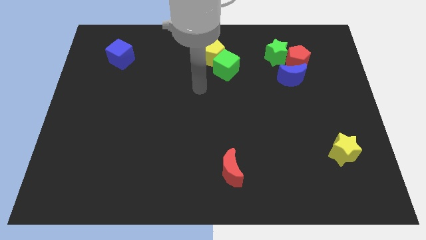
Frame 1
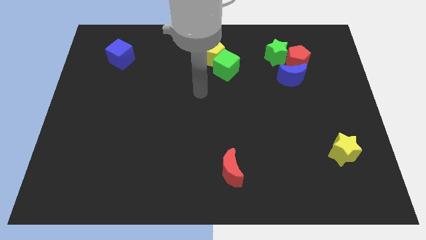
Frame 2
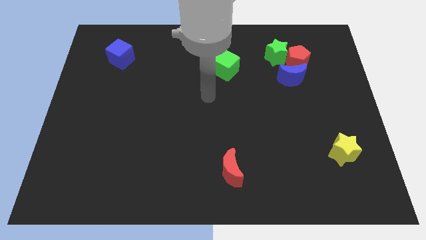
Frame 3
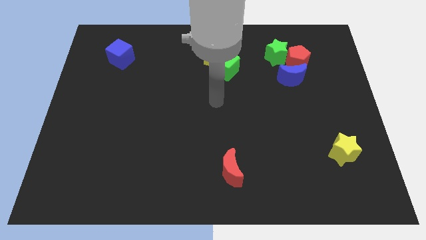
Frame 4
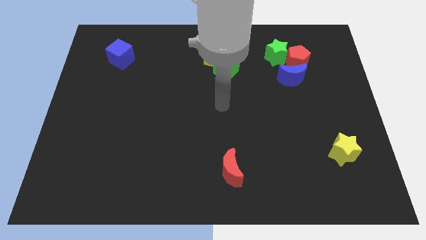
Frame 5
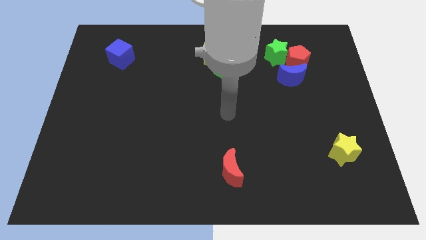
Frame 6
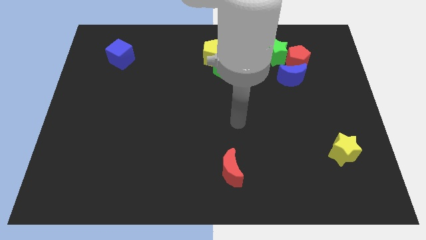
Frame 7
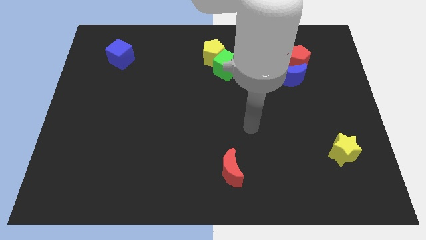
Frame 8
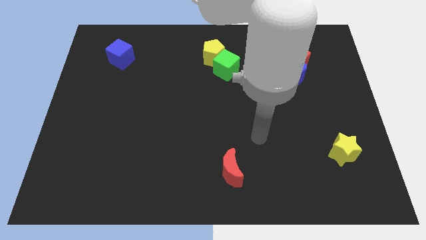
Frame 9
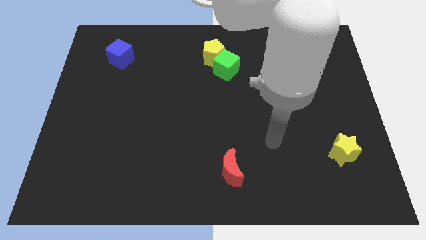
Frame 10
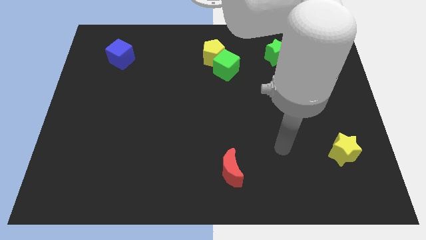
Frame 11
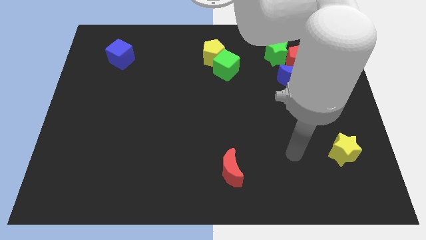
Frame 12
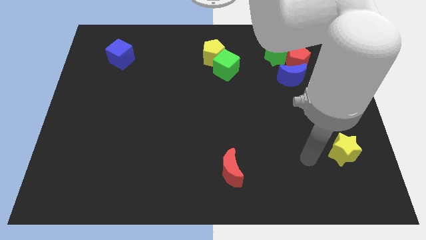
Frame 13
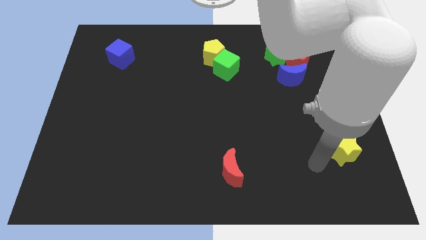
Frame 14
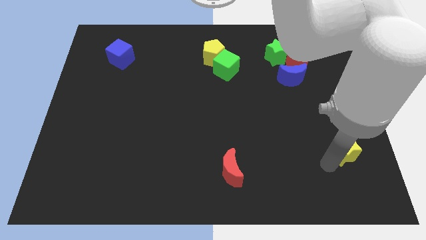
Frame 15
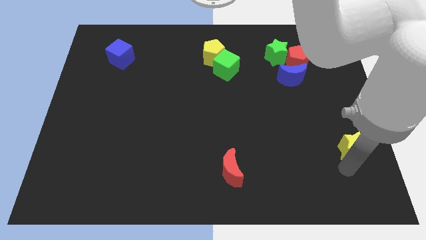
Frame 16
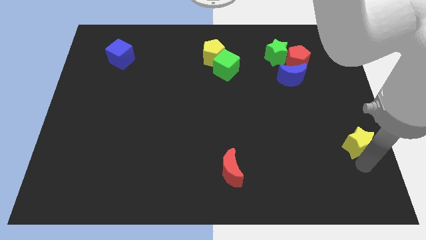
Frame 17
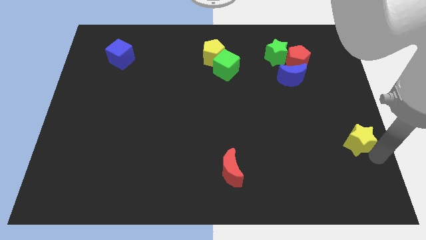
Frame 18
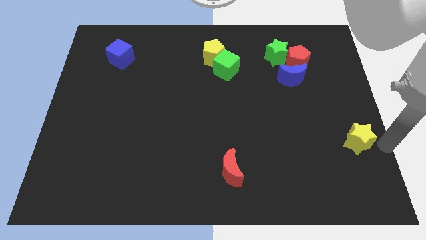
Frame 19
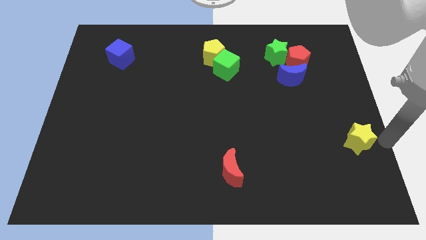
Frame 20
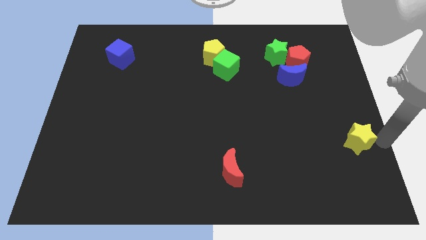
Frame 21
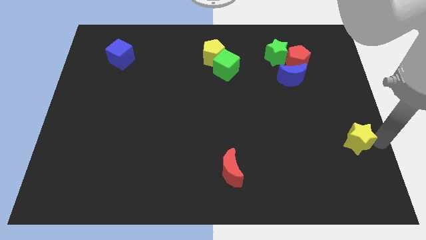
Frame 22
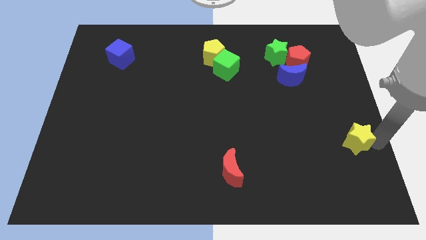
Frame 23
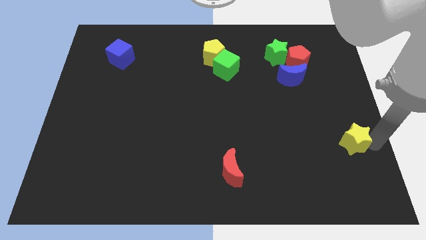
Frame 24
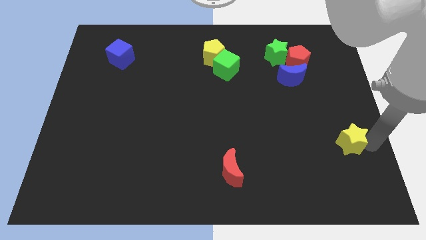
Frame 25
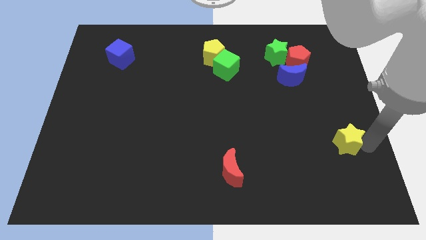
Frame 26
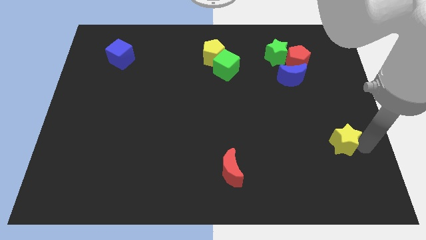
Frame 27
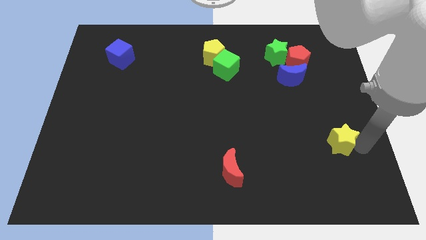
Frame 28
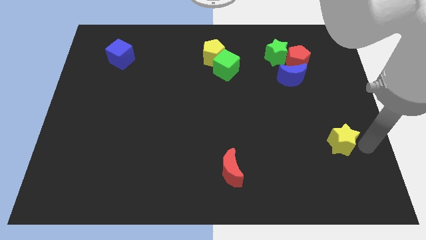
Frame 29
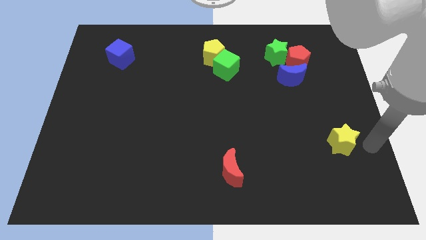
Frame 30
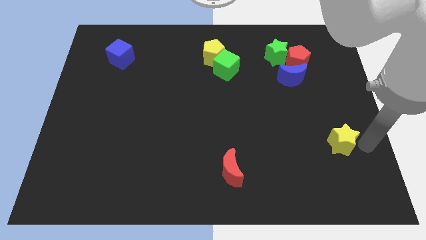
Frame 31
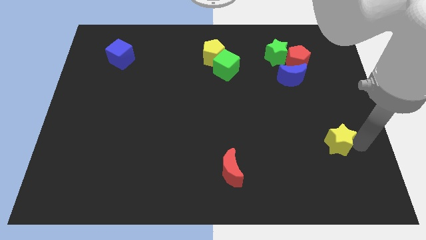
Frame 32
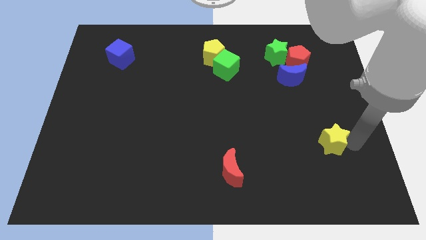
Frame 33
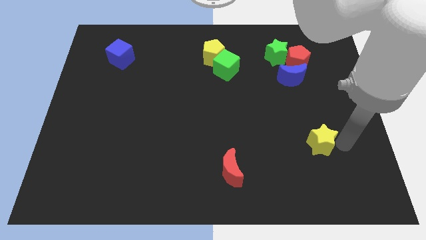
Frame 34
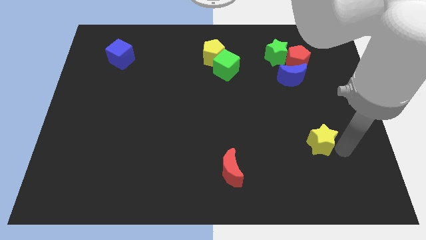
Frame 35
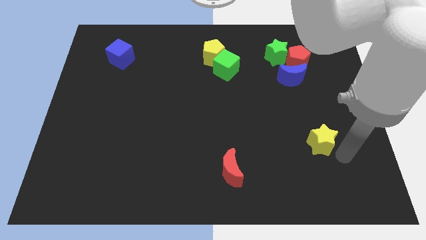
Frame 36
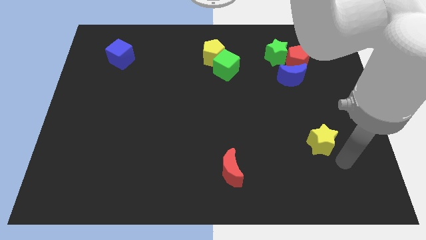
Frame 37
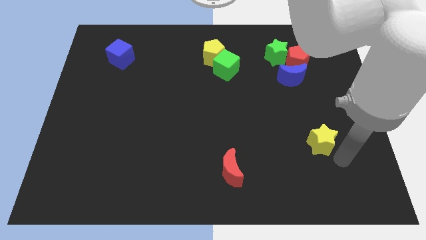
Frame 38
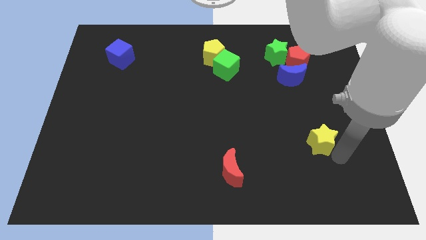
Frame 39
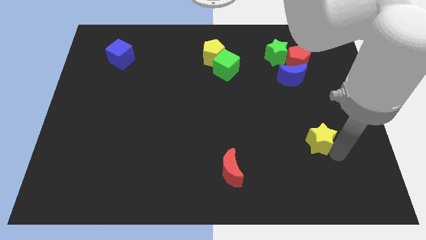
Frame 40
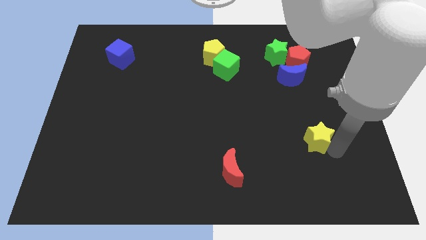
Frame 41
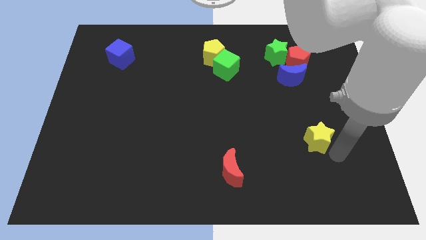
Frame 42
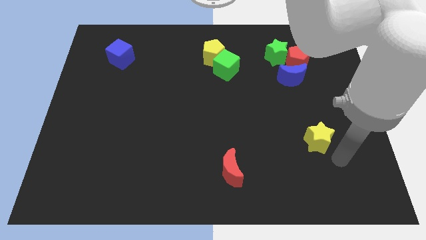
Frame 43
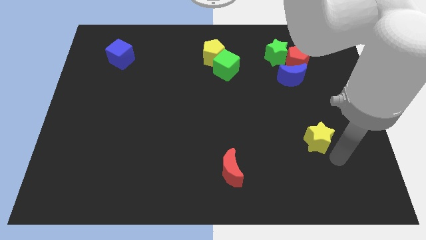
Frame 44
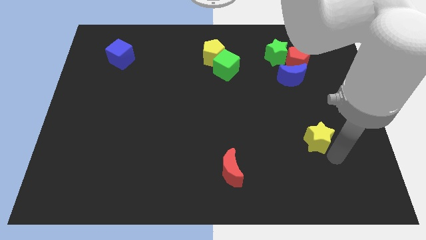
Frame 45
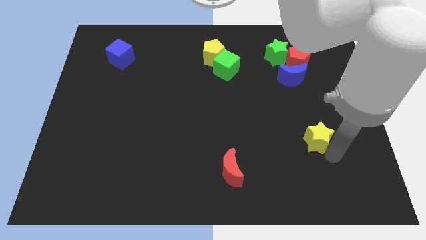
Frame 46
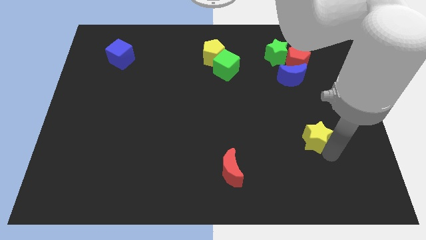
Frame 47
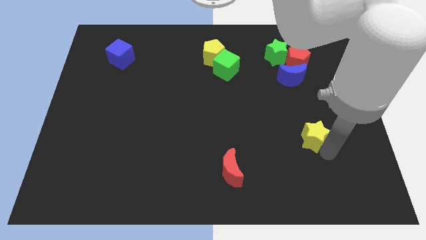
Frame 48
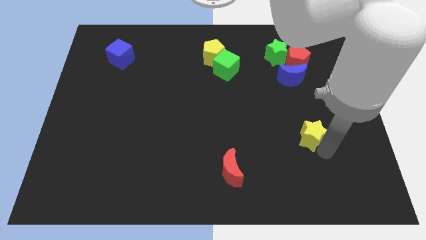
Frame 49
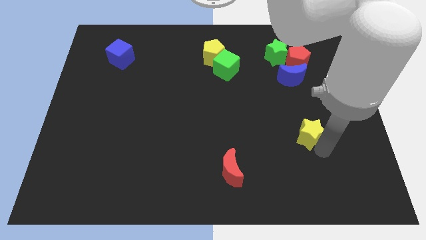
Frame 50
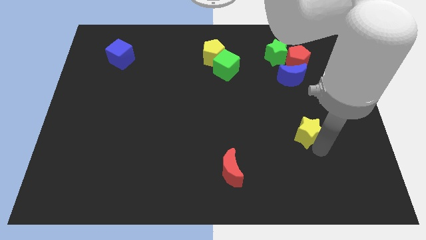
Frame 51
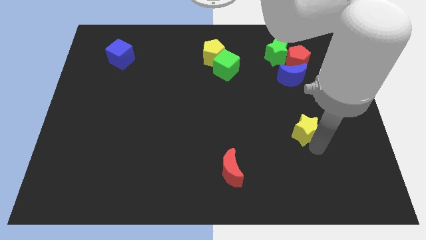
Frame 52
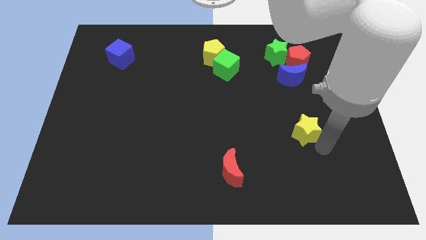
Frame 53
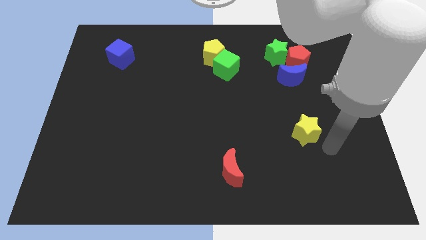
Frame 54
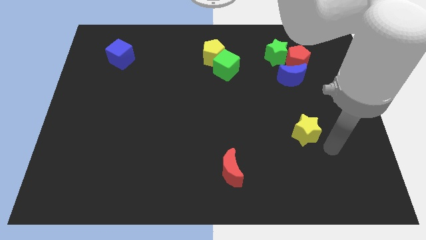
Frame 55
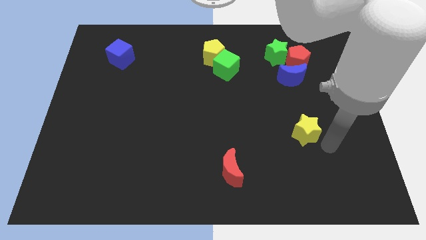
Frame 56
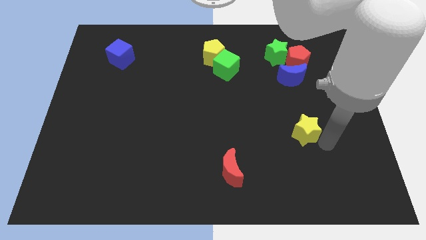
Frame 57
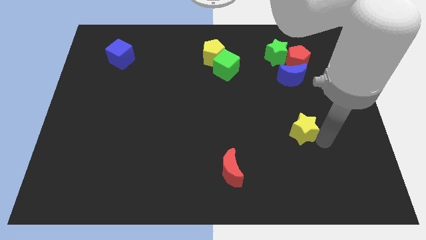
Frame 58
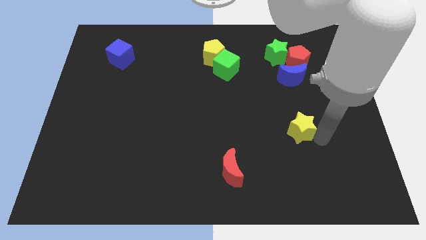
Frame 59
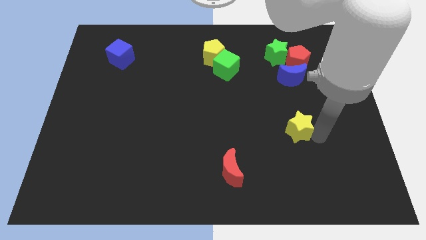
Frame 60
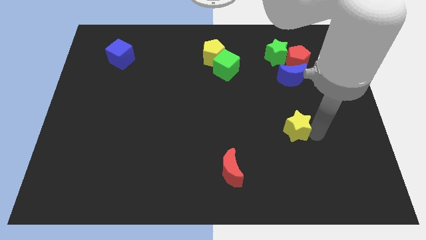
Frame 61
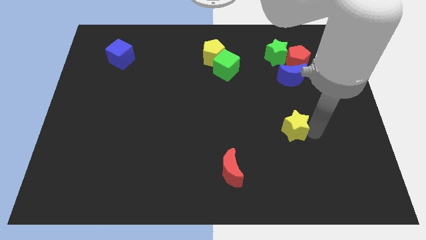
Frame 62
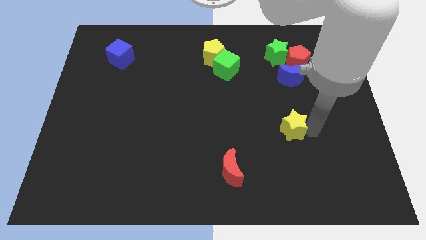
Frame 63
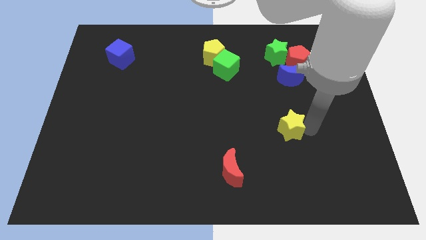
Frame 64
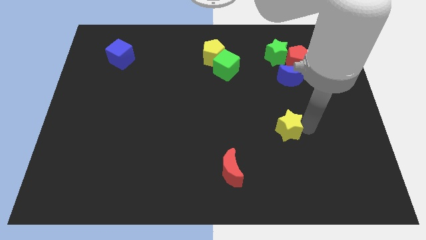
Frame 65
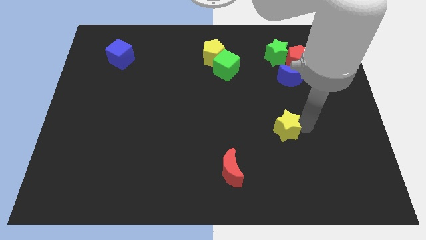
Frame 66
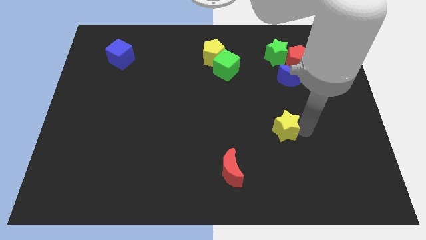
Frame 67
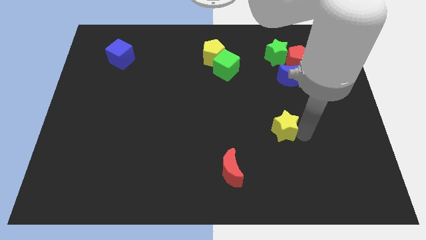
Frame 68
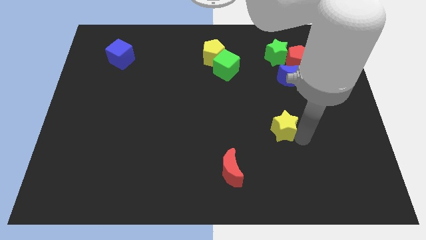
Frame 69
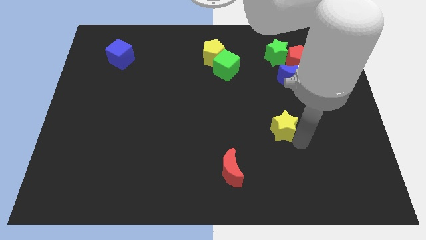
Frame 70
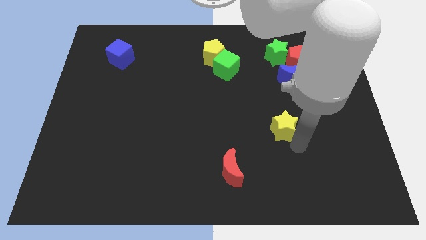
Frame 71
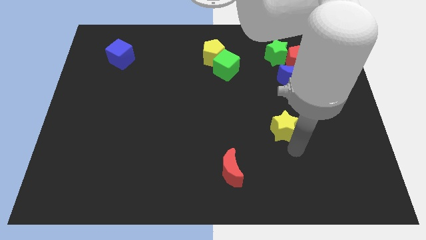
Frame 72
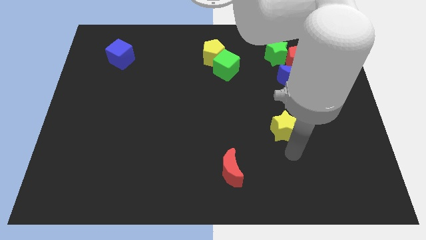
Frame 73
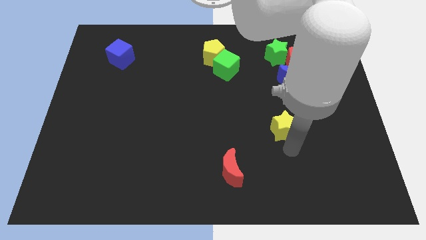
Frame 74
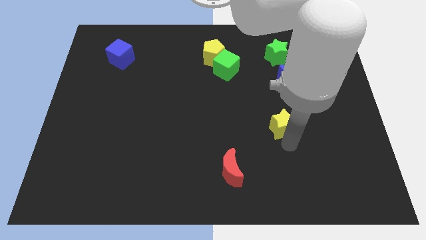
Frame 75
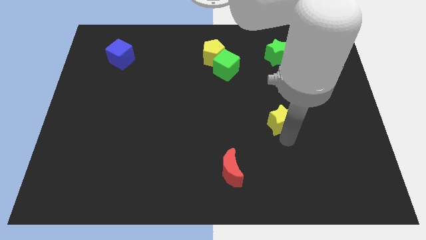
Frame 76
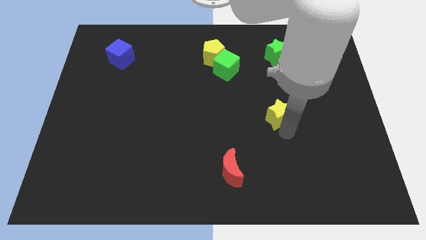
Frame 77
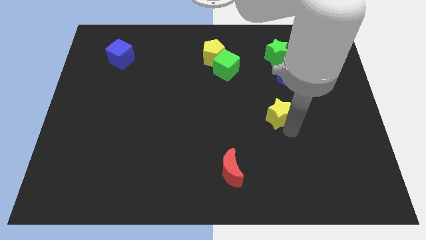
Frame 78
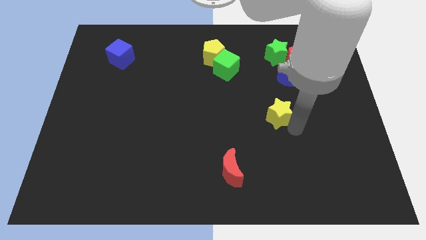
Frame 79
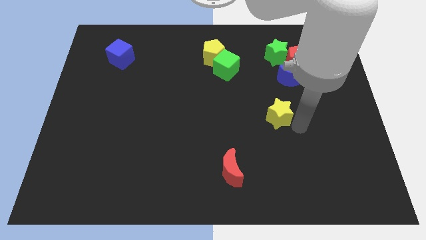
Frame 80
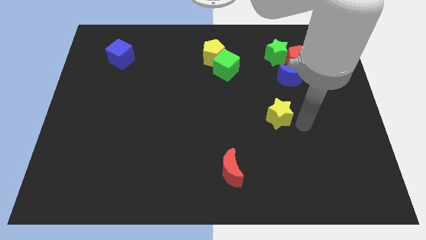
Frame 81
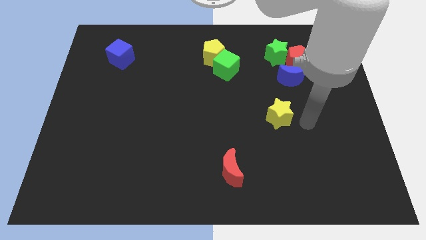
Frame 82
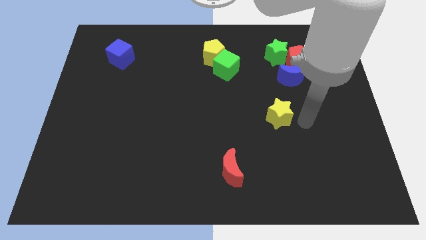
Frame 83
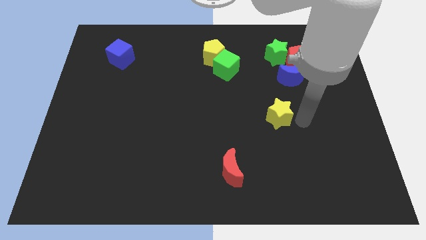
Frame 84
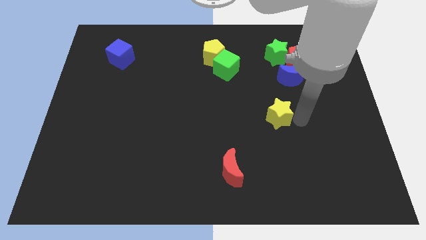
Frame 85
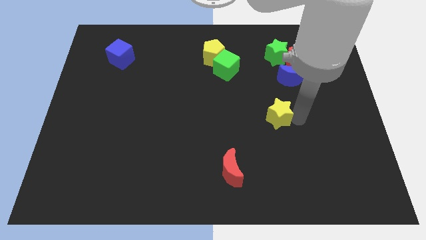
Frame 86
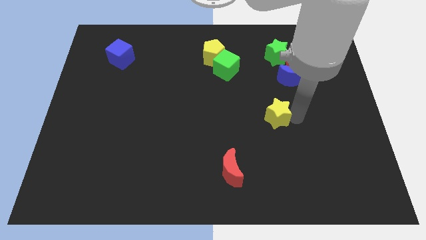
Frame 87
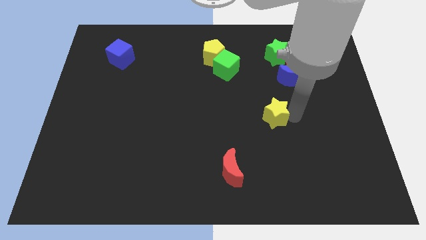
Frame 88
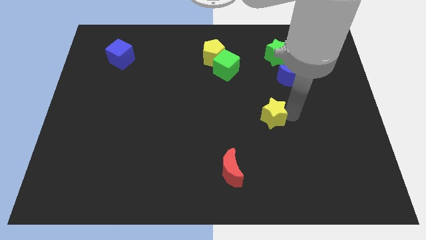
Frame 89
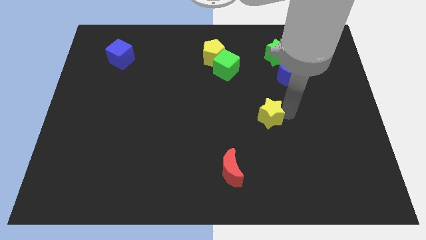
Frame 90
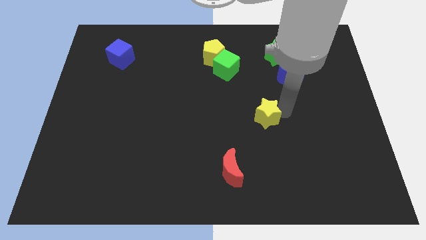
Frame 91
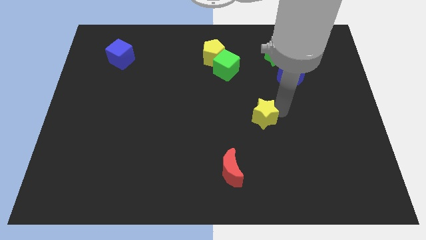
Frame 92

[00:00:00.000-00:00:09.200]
push the yellow star to the middle of the board
